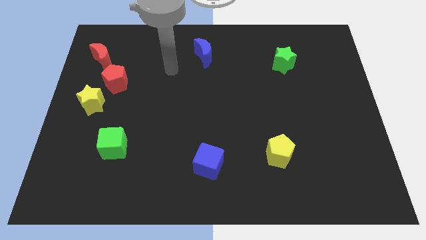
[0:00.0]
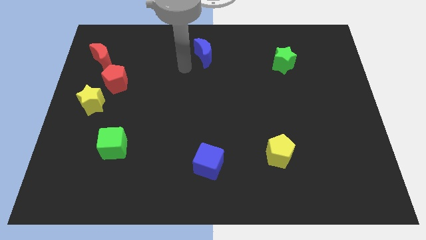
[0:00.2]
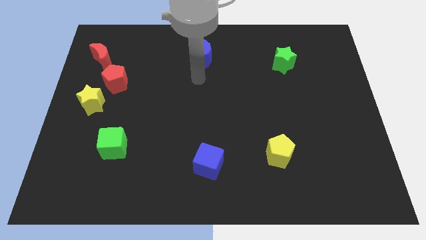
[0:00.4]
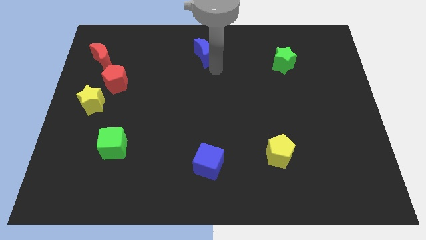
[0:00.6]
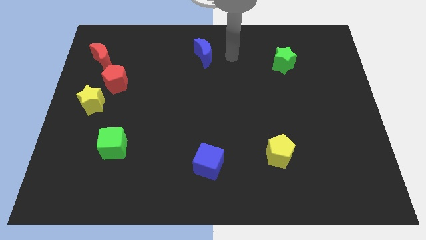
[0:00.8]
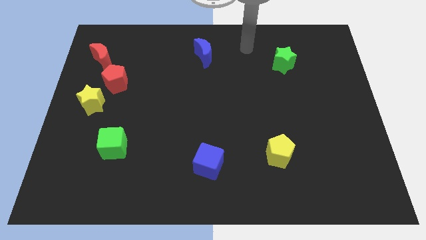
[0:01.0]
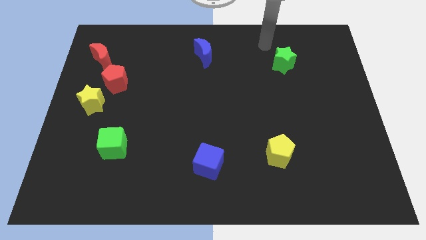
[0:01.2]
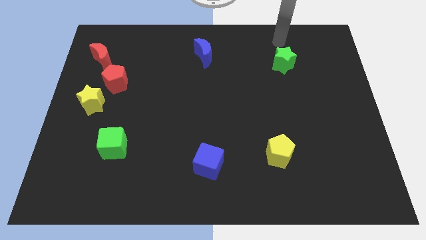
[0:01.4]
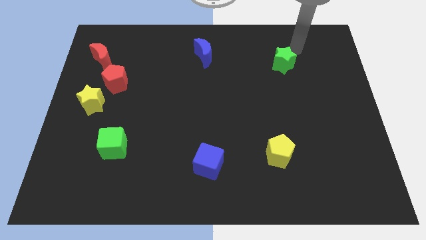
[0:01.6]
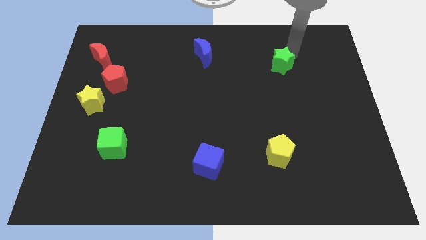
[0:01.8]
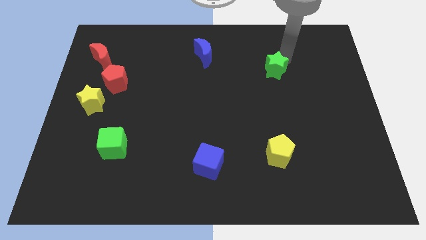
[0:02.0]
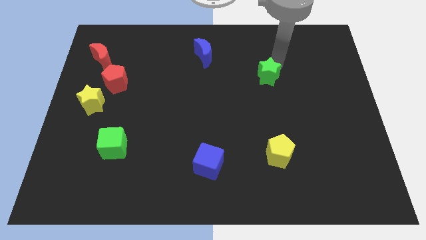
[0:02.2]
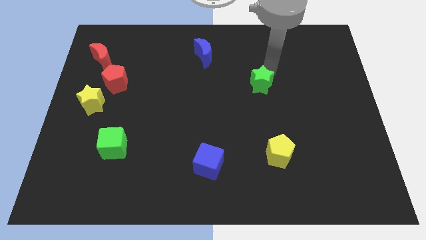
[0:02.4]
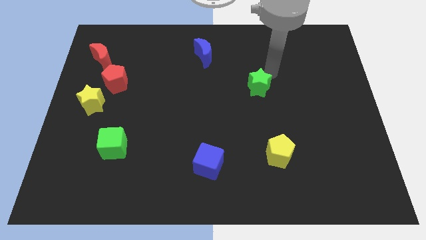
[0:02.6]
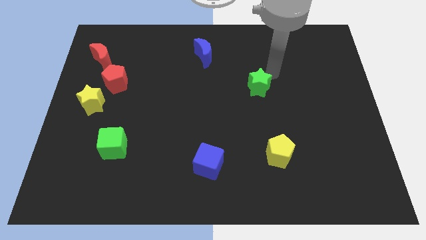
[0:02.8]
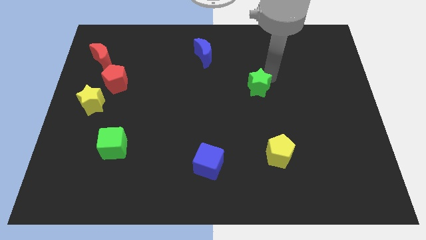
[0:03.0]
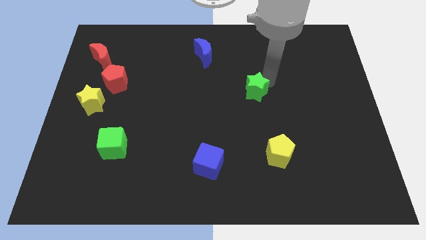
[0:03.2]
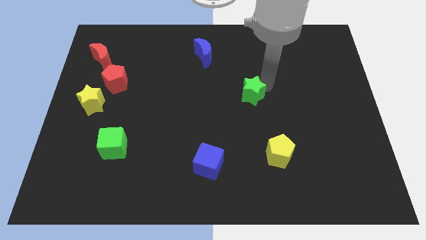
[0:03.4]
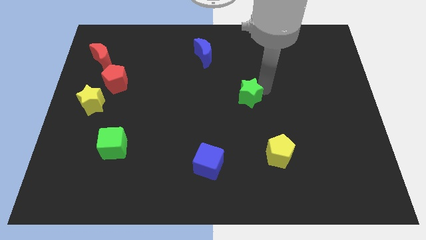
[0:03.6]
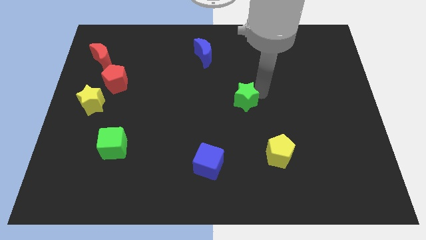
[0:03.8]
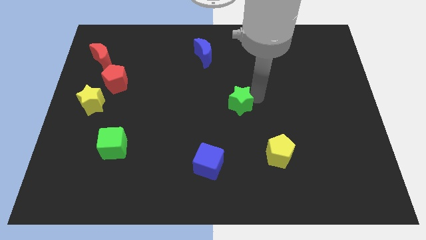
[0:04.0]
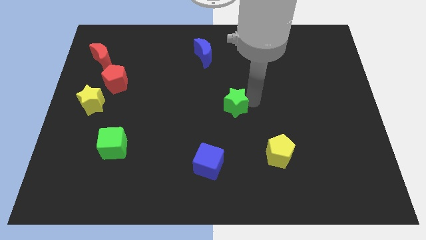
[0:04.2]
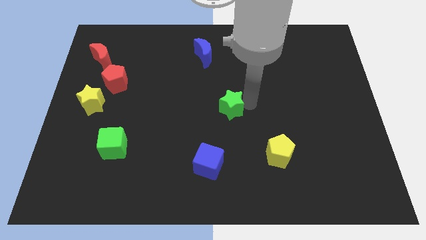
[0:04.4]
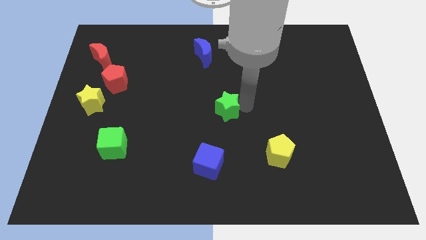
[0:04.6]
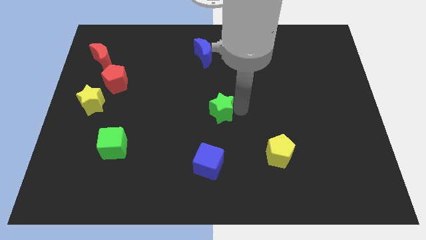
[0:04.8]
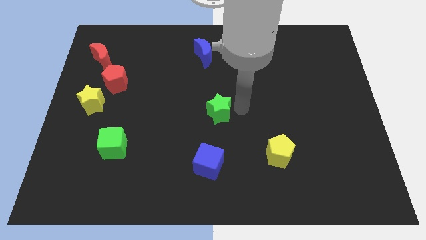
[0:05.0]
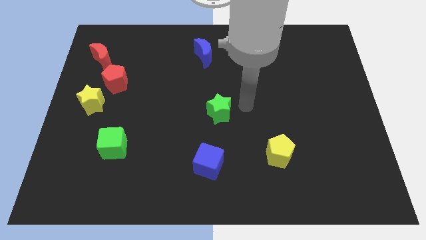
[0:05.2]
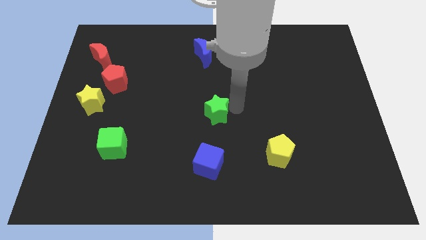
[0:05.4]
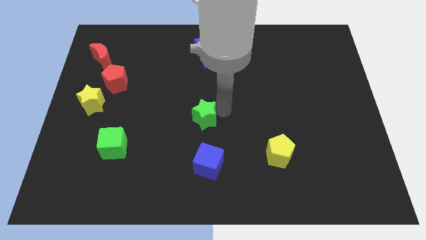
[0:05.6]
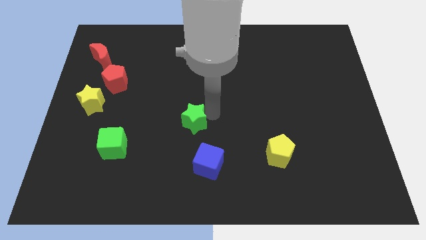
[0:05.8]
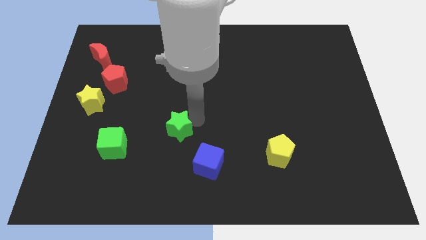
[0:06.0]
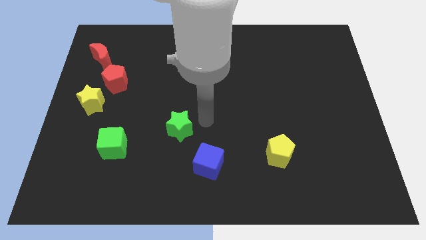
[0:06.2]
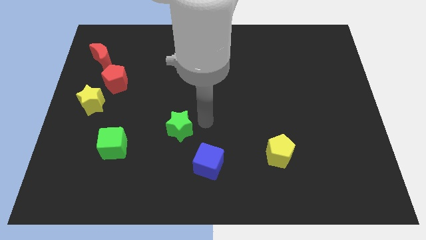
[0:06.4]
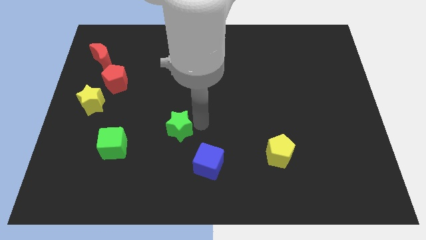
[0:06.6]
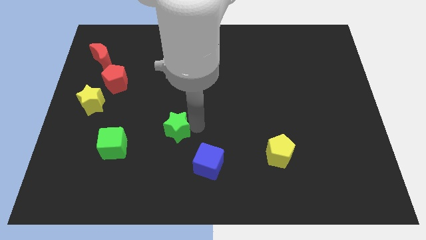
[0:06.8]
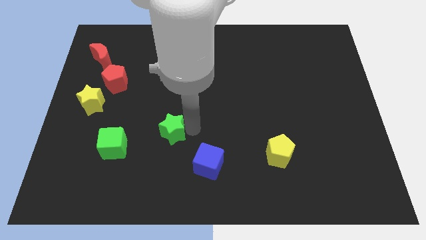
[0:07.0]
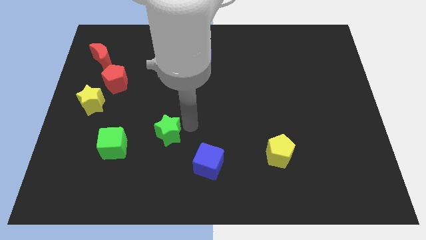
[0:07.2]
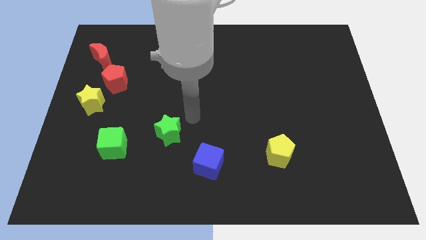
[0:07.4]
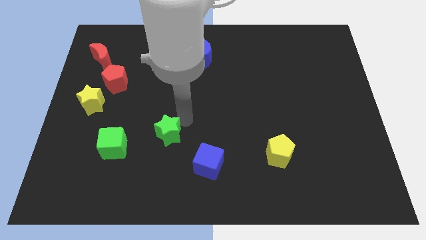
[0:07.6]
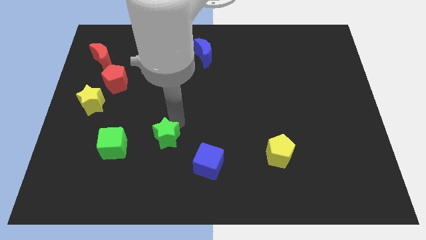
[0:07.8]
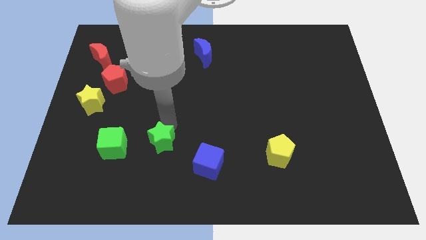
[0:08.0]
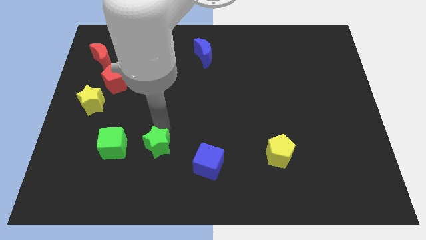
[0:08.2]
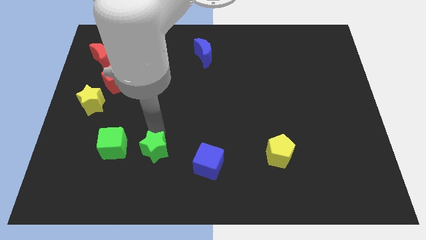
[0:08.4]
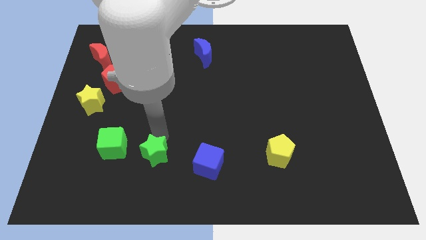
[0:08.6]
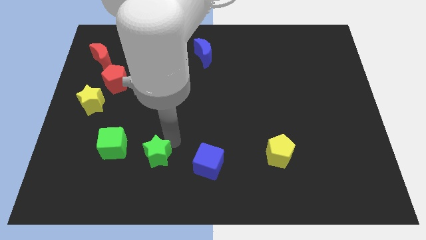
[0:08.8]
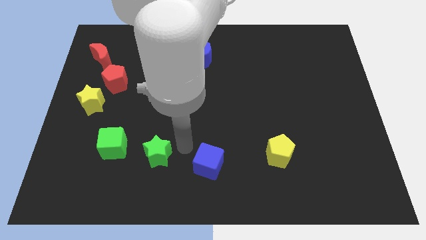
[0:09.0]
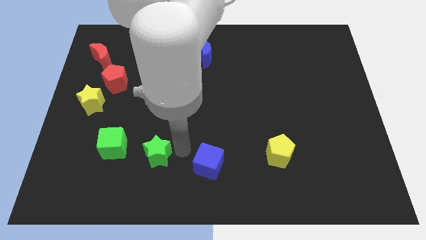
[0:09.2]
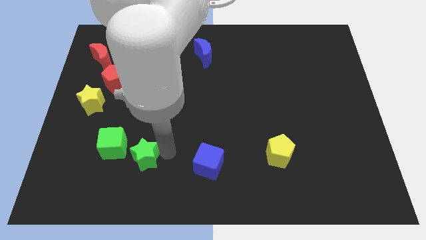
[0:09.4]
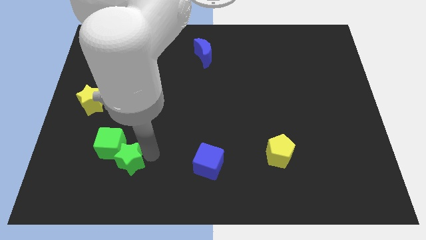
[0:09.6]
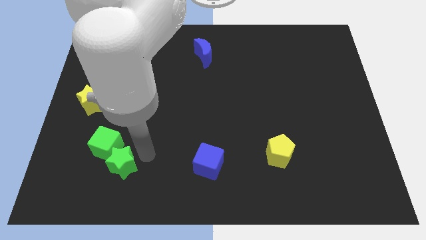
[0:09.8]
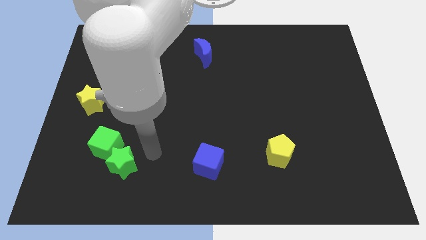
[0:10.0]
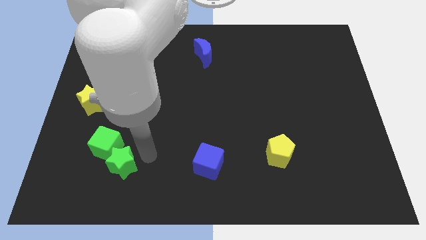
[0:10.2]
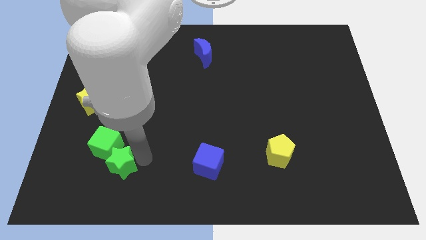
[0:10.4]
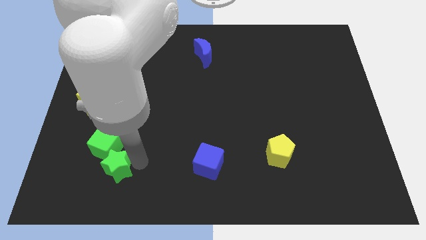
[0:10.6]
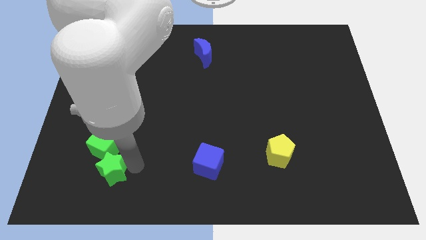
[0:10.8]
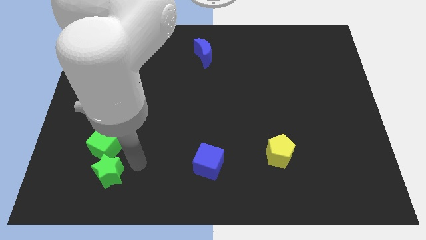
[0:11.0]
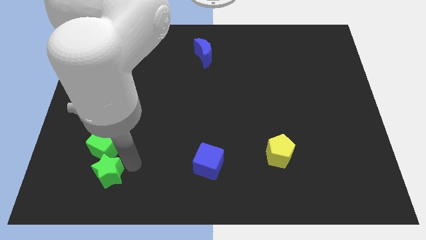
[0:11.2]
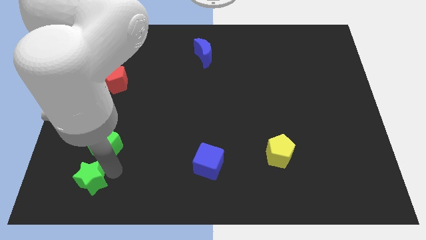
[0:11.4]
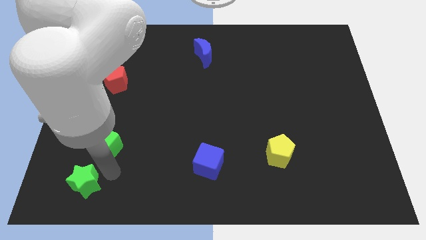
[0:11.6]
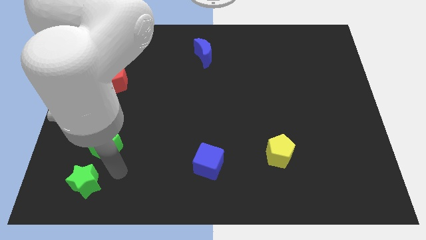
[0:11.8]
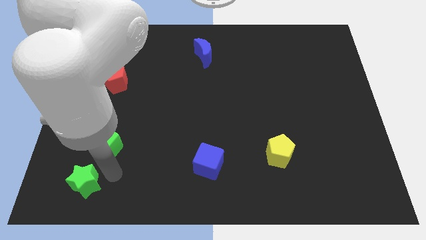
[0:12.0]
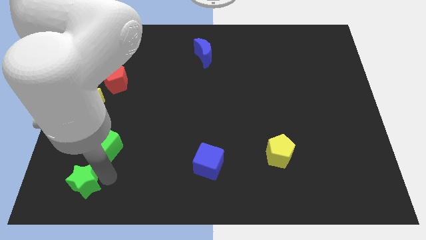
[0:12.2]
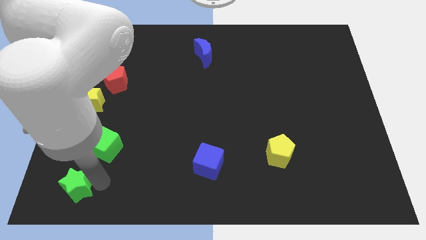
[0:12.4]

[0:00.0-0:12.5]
move the green star to the bottom left

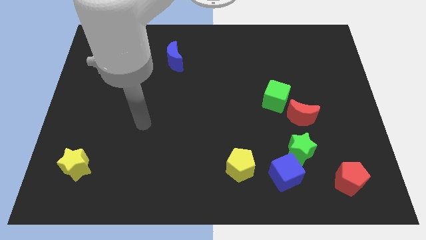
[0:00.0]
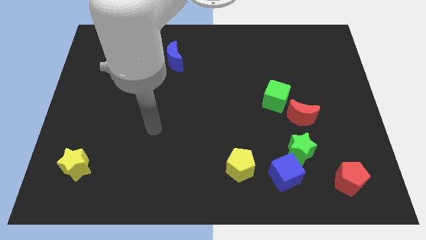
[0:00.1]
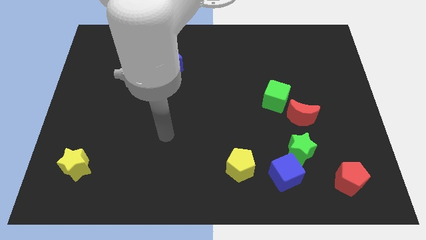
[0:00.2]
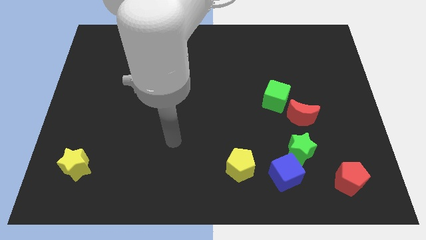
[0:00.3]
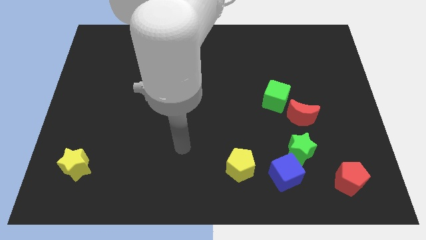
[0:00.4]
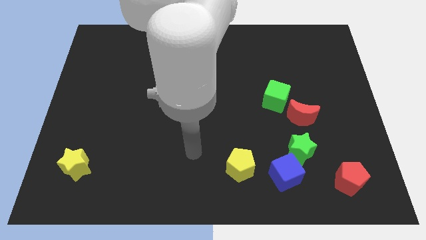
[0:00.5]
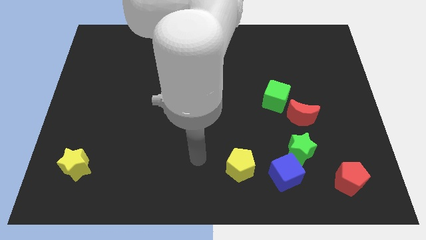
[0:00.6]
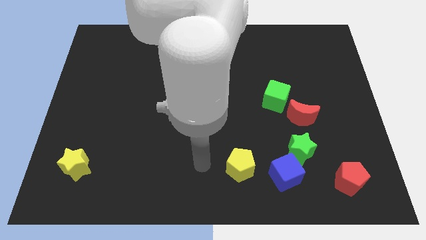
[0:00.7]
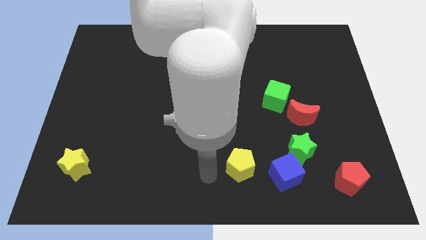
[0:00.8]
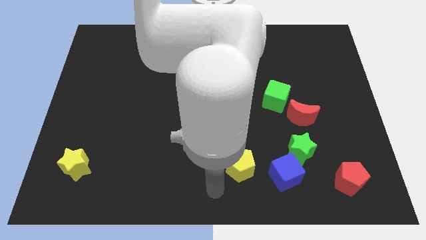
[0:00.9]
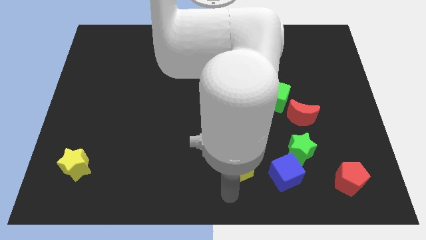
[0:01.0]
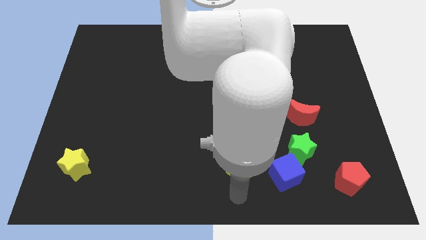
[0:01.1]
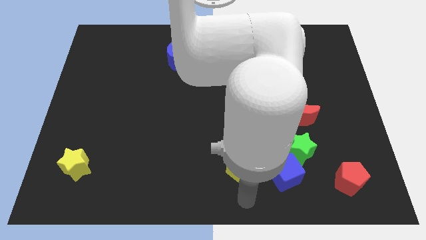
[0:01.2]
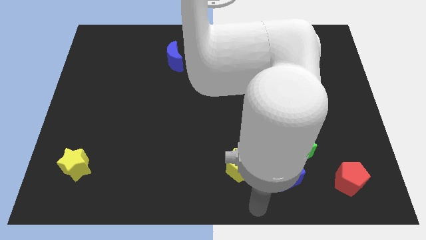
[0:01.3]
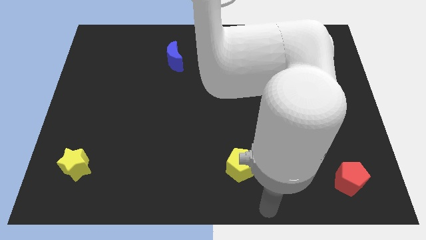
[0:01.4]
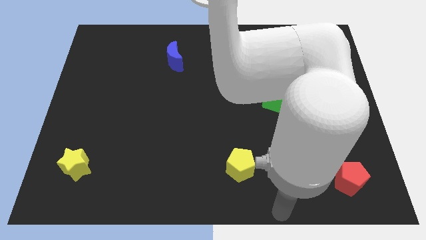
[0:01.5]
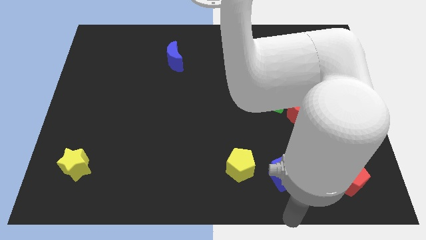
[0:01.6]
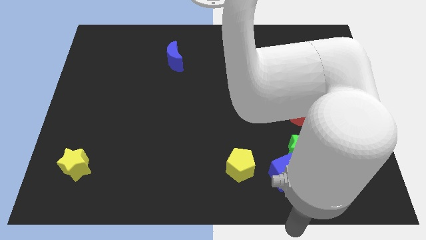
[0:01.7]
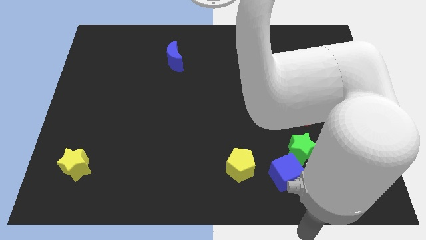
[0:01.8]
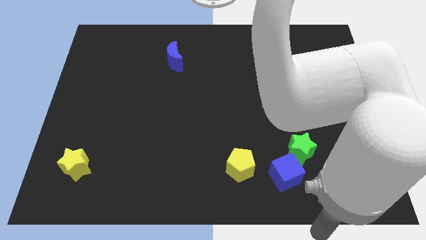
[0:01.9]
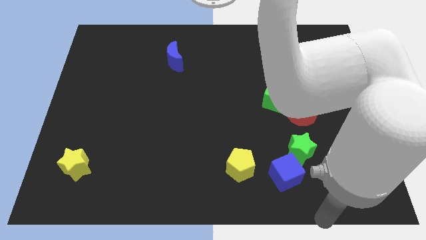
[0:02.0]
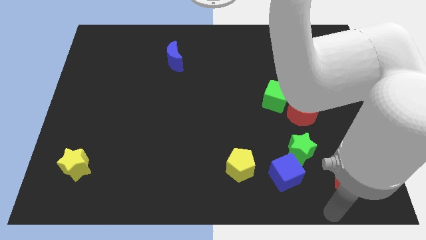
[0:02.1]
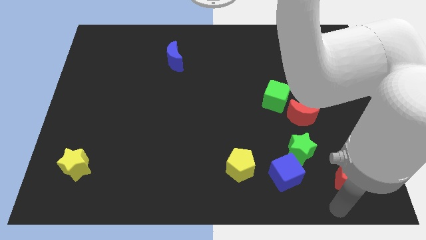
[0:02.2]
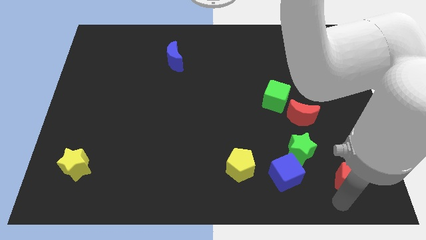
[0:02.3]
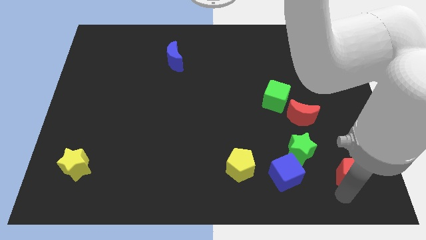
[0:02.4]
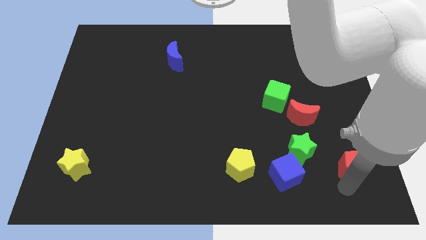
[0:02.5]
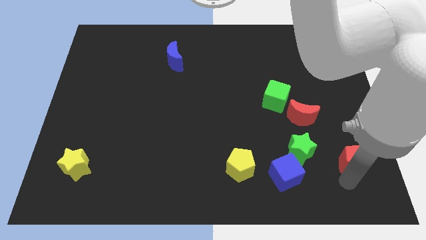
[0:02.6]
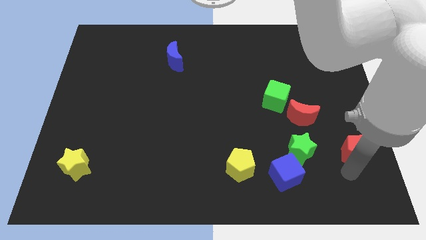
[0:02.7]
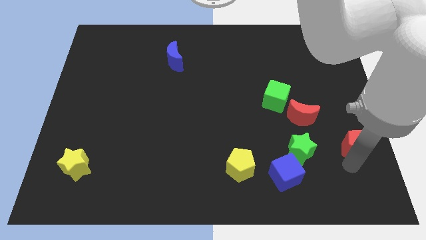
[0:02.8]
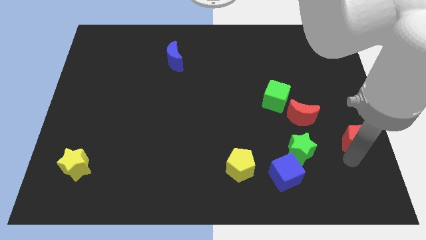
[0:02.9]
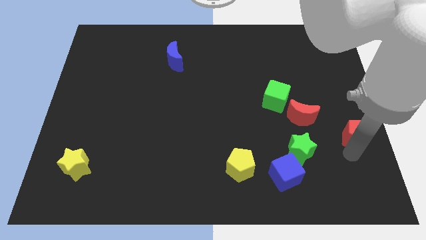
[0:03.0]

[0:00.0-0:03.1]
push the red pentagon to the right side of the board
